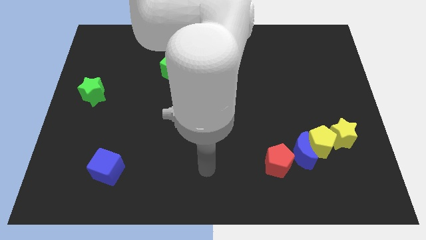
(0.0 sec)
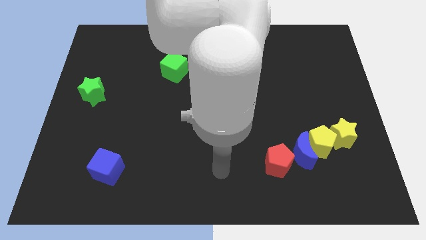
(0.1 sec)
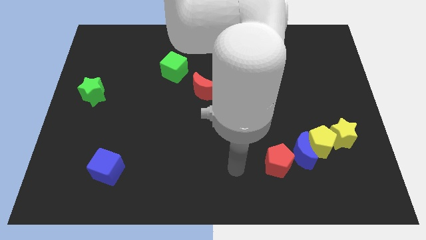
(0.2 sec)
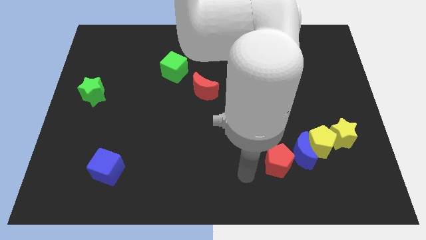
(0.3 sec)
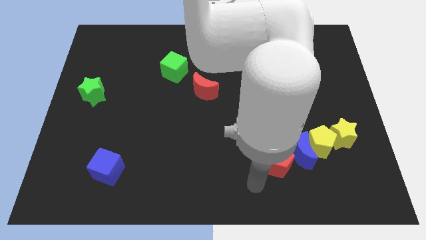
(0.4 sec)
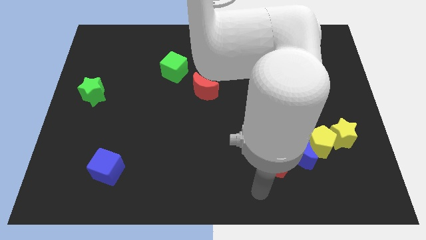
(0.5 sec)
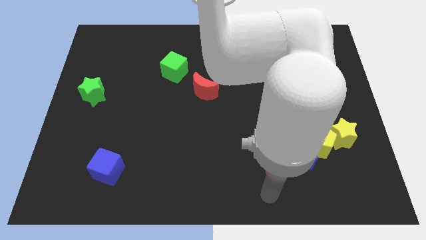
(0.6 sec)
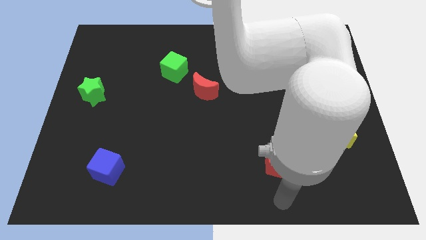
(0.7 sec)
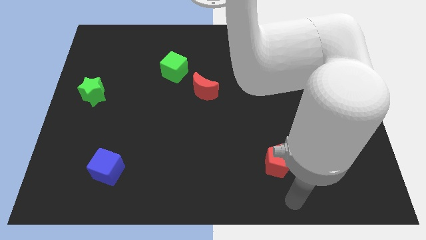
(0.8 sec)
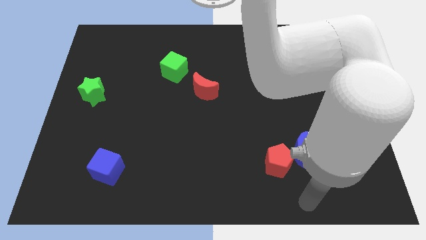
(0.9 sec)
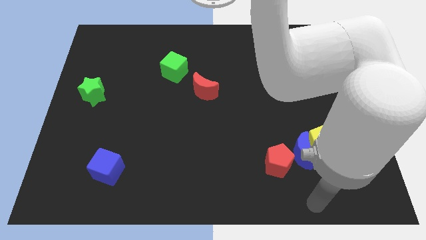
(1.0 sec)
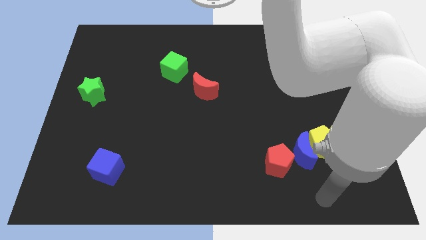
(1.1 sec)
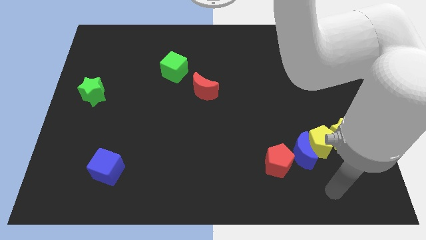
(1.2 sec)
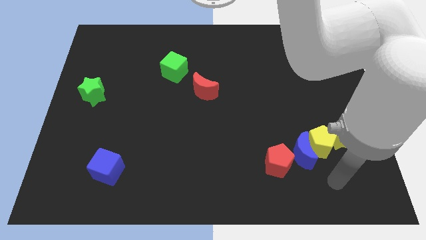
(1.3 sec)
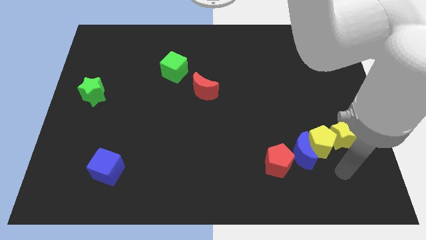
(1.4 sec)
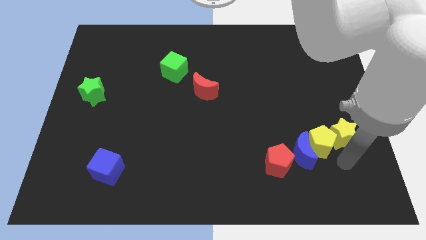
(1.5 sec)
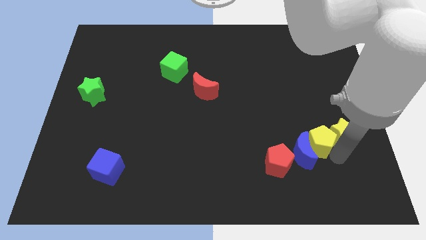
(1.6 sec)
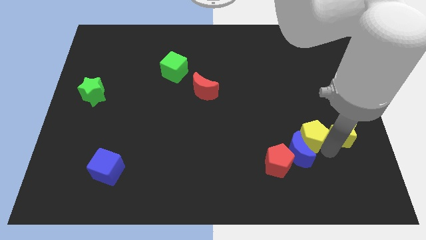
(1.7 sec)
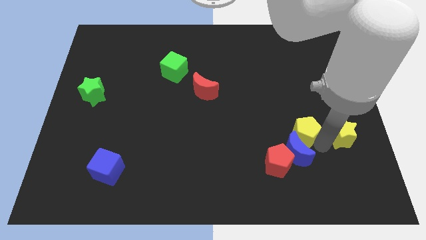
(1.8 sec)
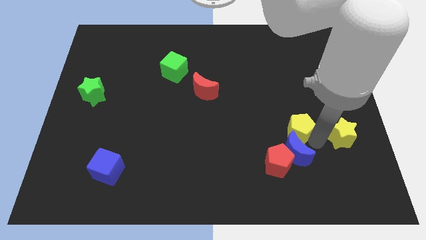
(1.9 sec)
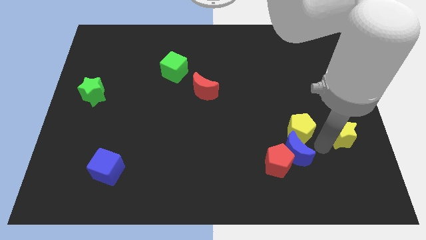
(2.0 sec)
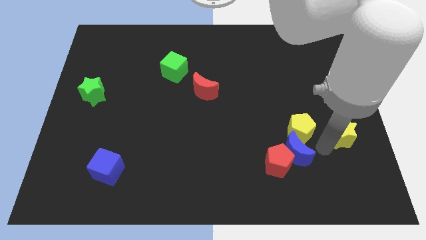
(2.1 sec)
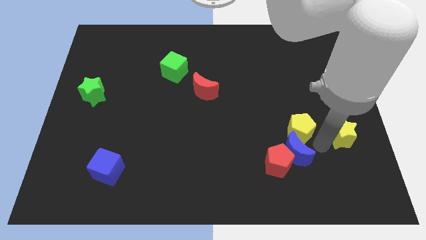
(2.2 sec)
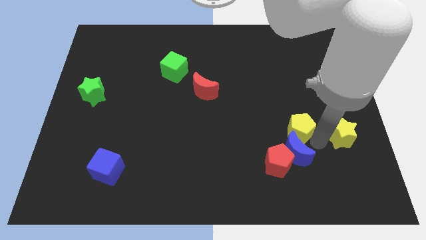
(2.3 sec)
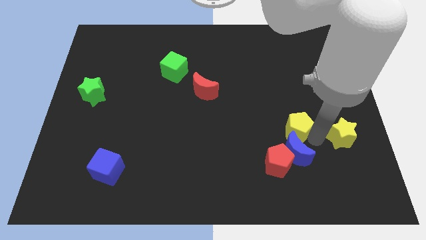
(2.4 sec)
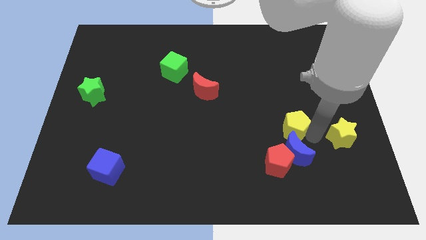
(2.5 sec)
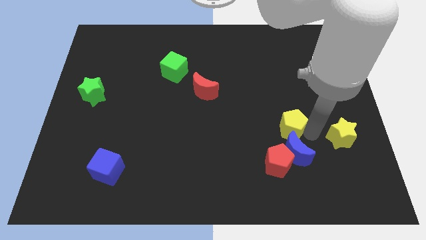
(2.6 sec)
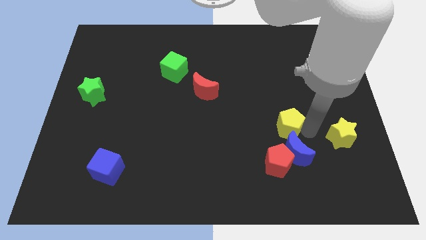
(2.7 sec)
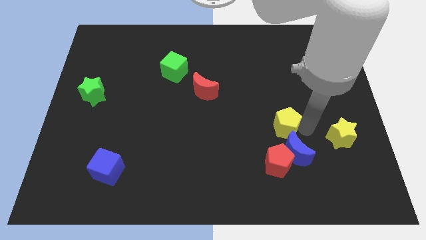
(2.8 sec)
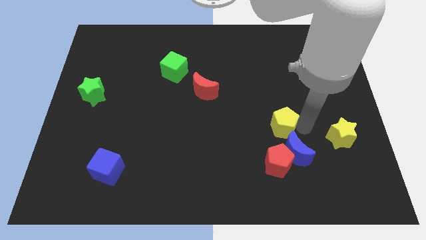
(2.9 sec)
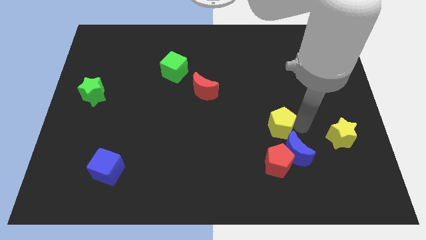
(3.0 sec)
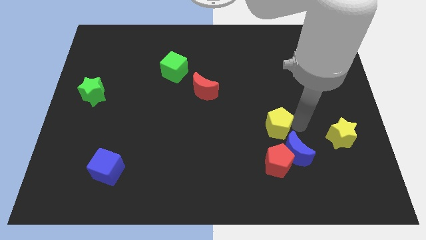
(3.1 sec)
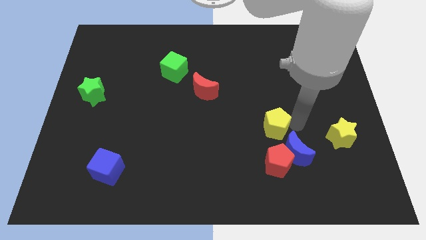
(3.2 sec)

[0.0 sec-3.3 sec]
pull the yellow pentagon apart from the blue moon and yellow star

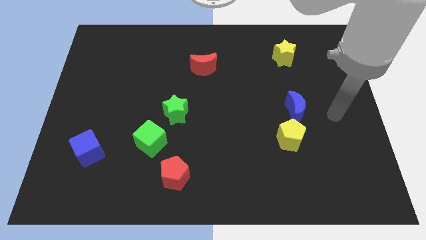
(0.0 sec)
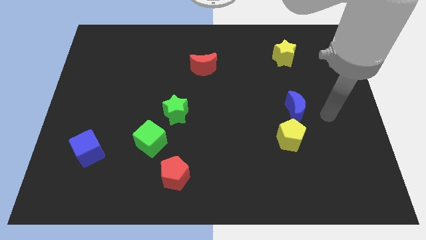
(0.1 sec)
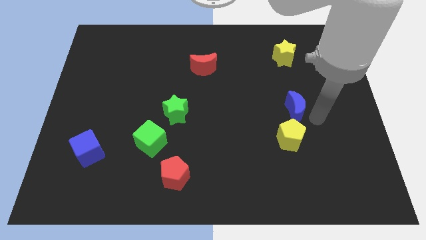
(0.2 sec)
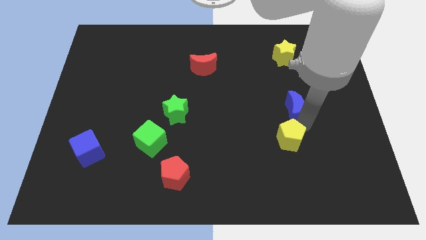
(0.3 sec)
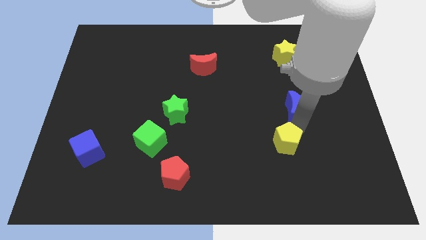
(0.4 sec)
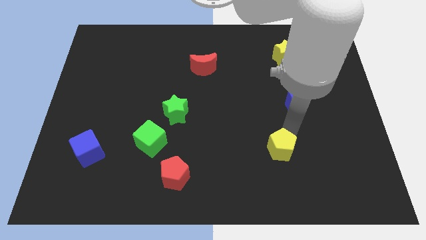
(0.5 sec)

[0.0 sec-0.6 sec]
move the blue moon away from the yellow pentagon

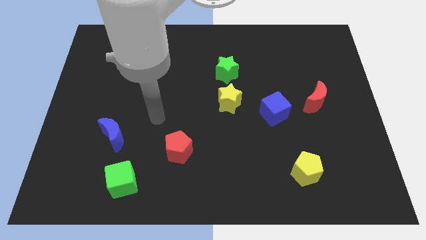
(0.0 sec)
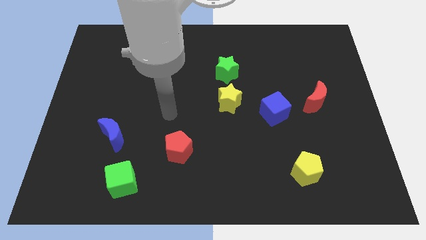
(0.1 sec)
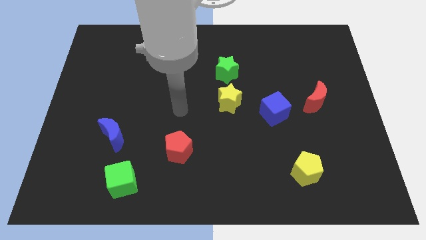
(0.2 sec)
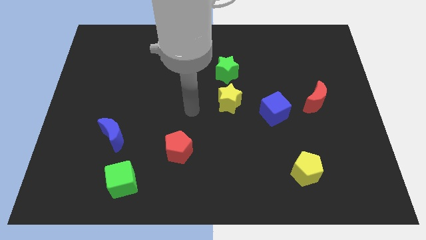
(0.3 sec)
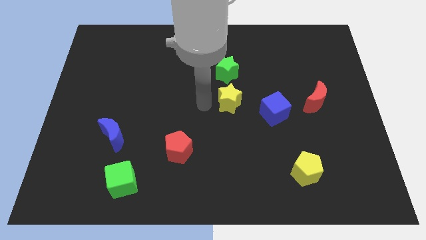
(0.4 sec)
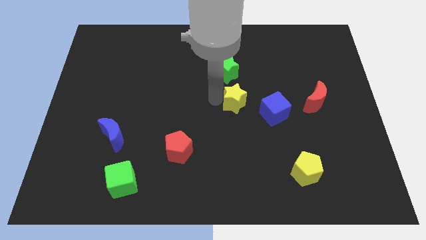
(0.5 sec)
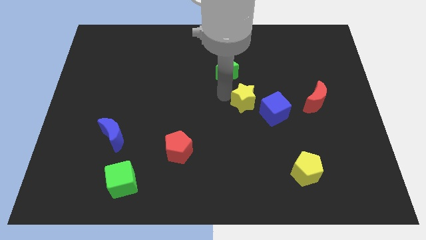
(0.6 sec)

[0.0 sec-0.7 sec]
move the green star away from the yellow star

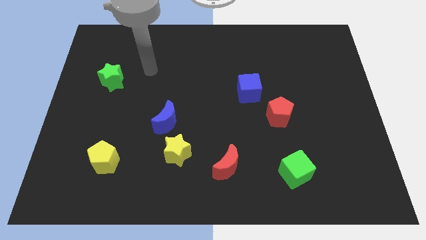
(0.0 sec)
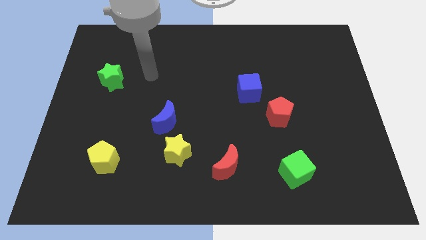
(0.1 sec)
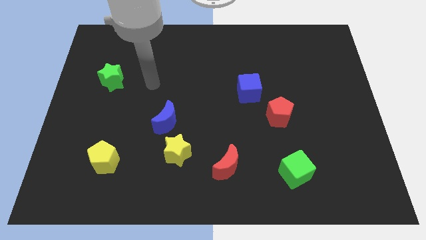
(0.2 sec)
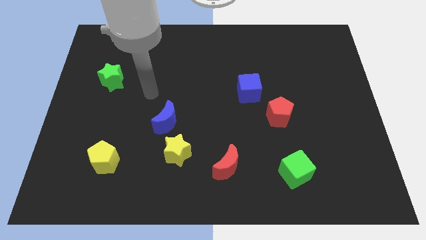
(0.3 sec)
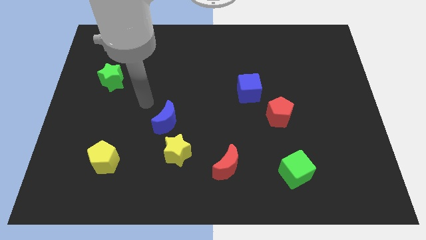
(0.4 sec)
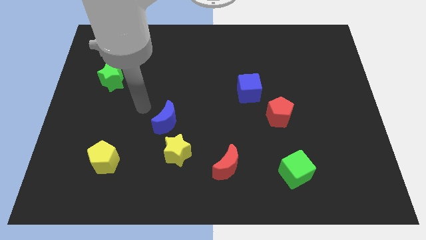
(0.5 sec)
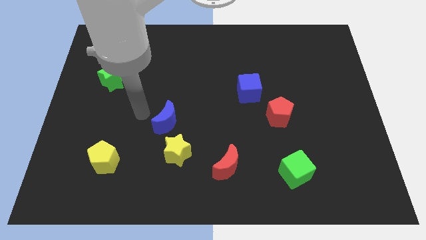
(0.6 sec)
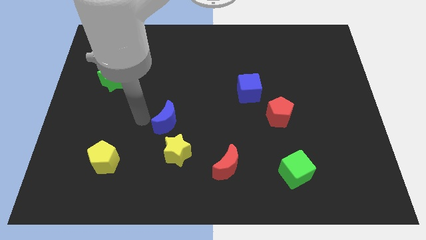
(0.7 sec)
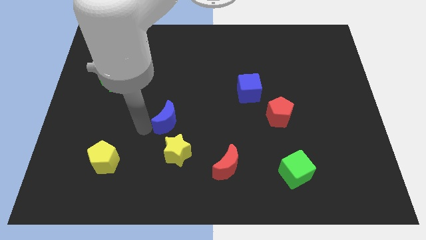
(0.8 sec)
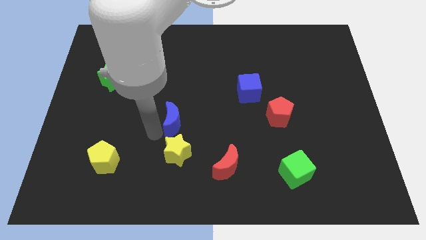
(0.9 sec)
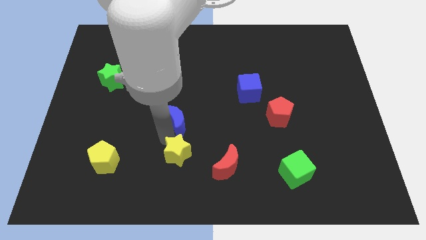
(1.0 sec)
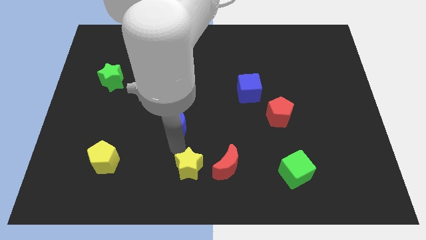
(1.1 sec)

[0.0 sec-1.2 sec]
pull the blue moon apart from the yellow star

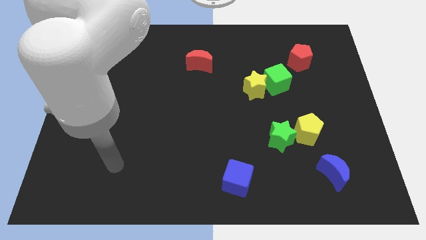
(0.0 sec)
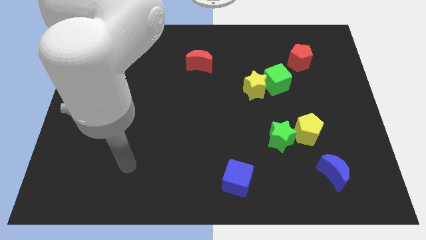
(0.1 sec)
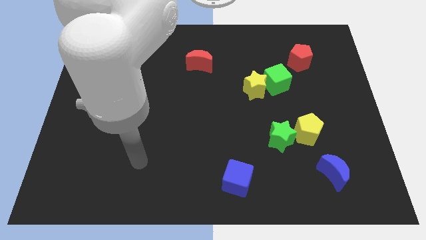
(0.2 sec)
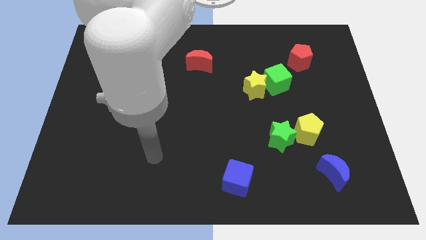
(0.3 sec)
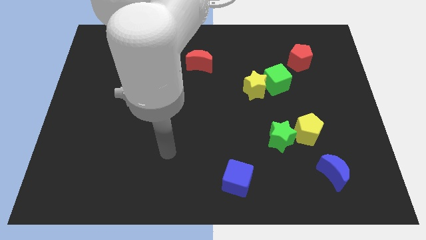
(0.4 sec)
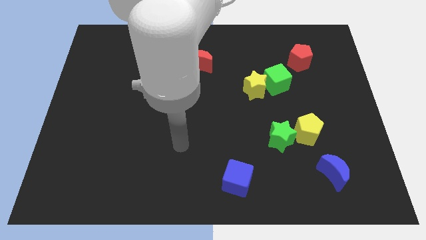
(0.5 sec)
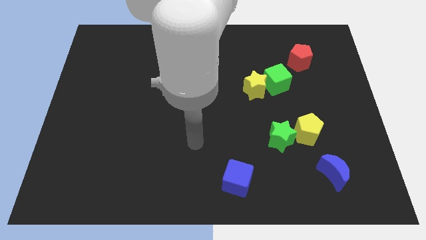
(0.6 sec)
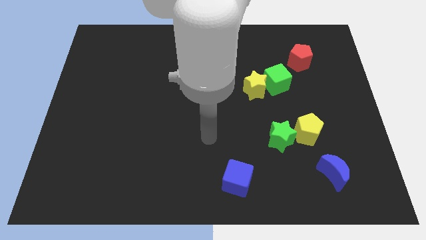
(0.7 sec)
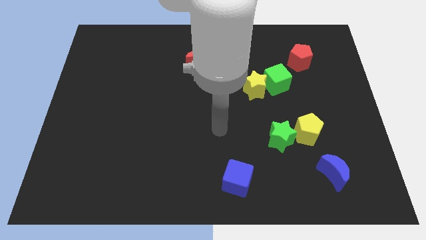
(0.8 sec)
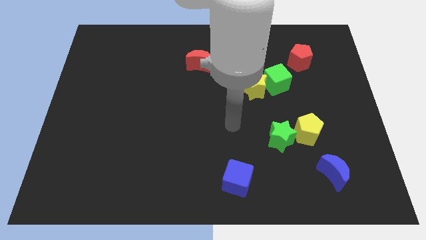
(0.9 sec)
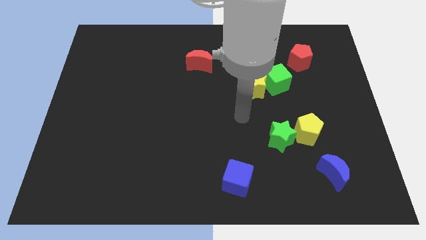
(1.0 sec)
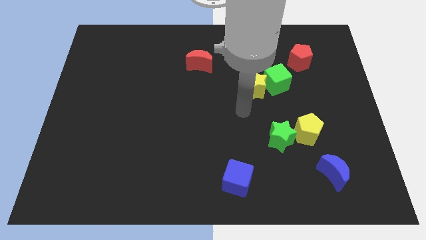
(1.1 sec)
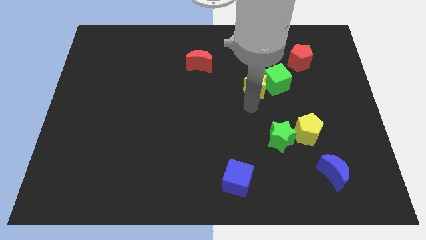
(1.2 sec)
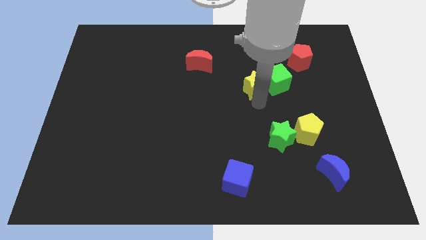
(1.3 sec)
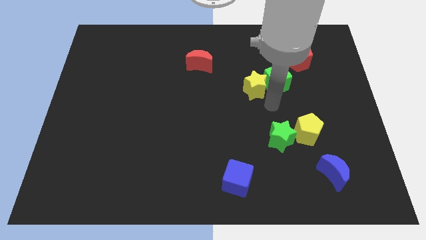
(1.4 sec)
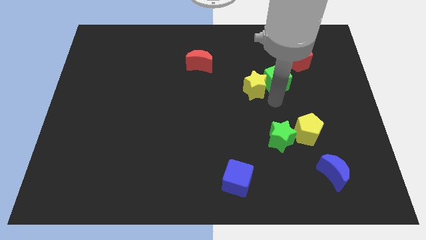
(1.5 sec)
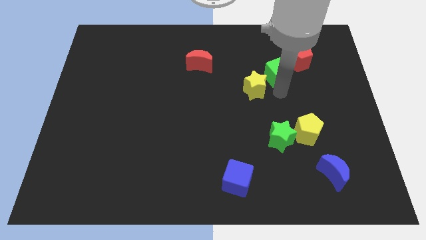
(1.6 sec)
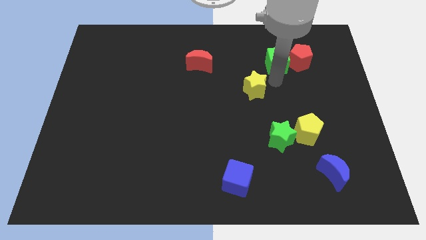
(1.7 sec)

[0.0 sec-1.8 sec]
pull the yellow star apart from the green cube

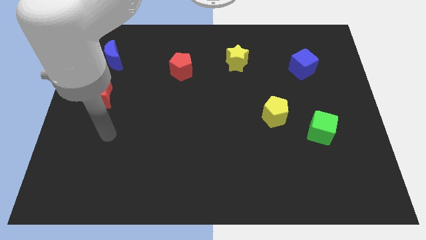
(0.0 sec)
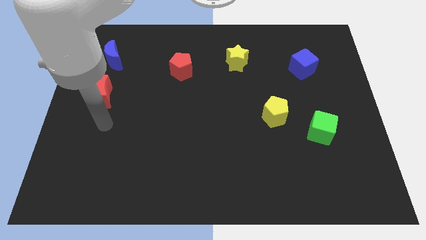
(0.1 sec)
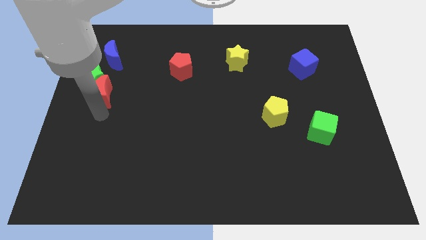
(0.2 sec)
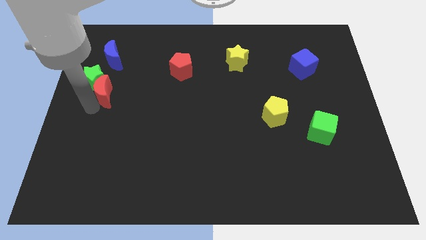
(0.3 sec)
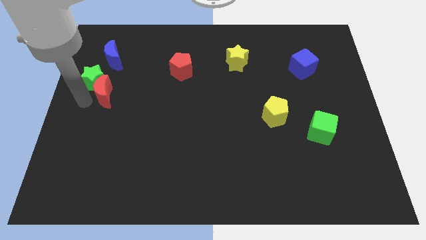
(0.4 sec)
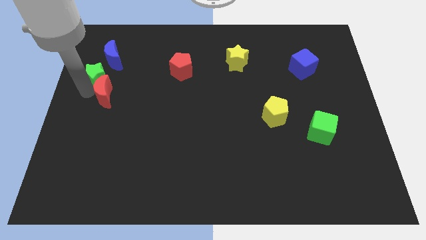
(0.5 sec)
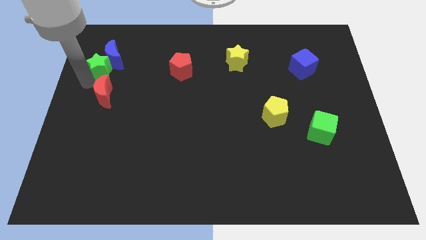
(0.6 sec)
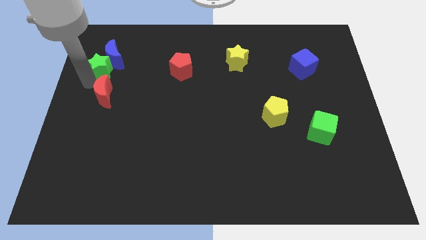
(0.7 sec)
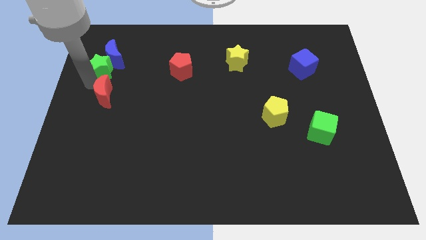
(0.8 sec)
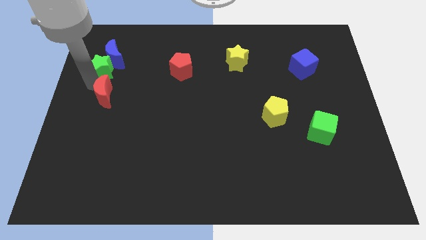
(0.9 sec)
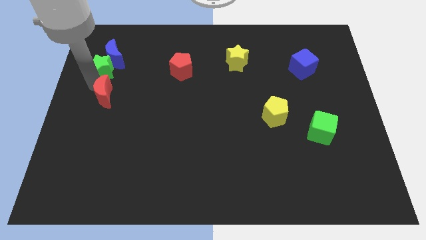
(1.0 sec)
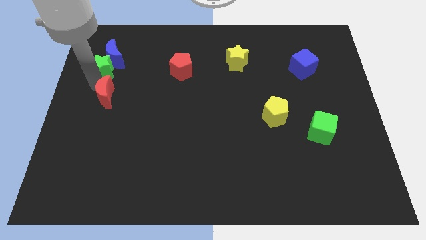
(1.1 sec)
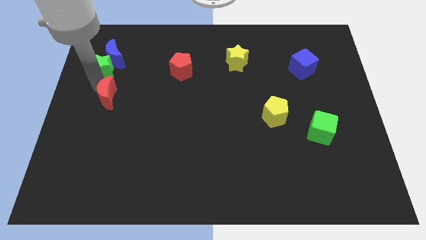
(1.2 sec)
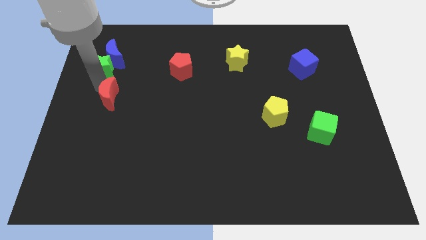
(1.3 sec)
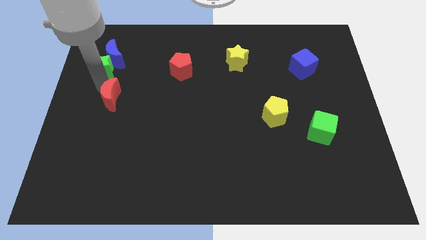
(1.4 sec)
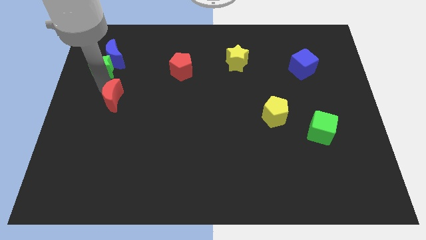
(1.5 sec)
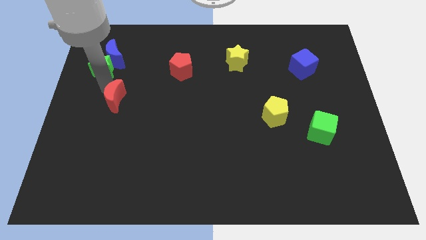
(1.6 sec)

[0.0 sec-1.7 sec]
move the red moon away from the green star
